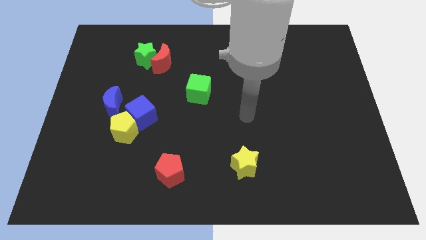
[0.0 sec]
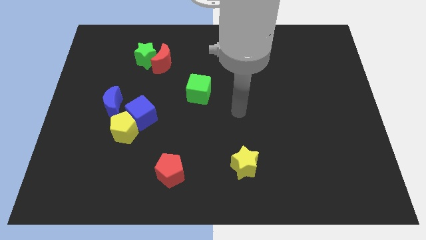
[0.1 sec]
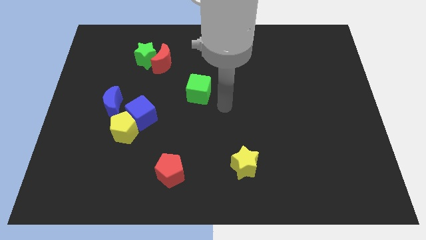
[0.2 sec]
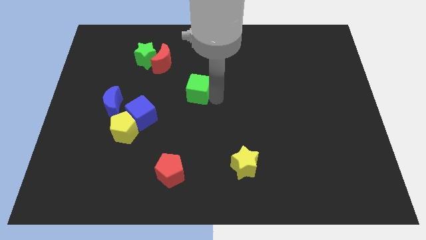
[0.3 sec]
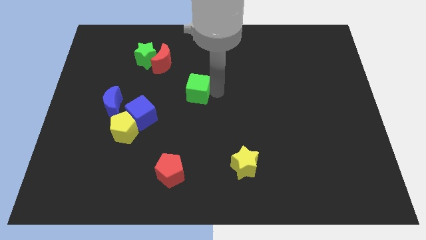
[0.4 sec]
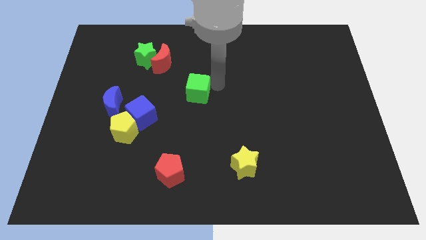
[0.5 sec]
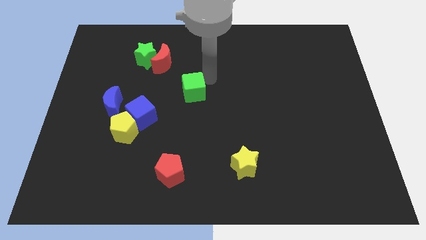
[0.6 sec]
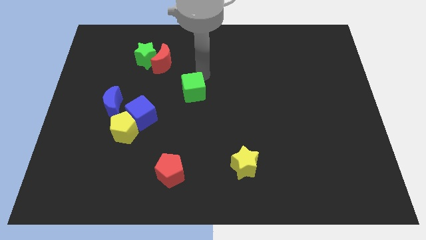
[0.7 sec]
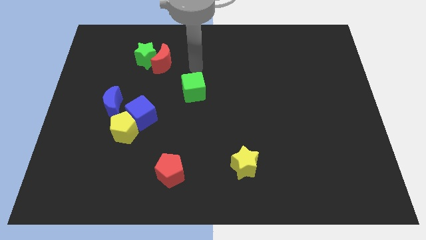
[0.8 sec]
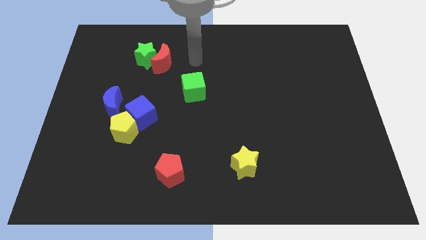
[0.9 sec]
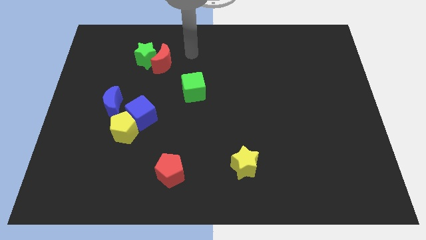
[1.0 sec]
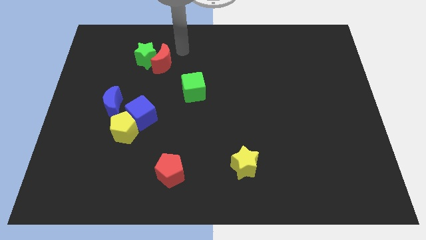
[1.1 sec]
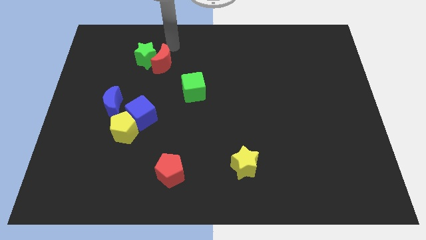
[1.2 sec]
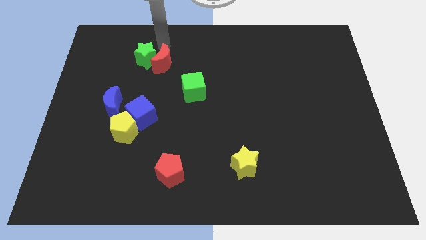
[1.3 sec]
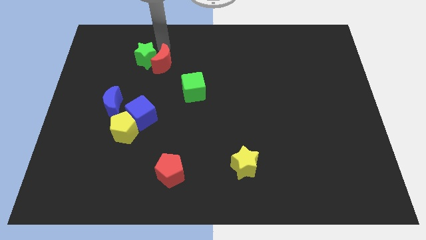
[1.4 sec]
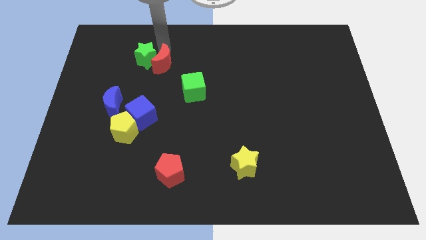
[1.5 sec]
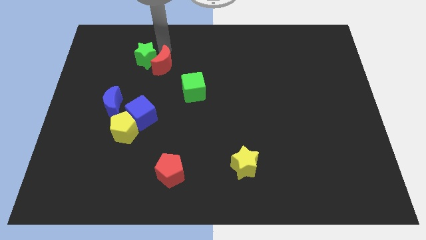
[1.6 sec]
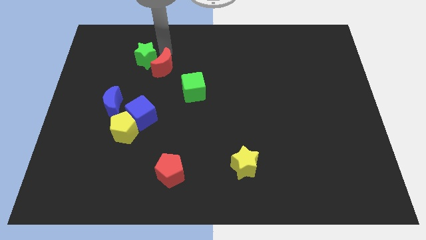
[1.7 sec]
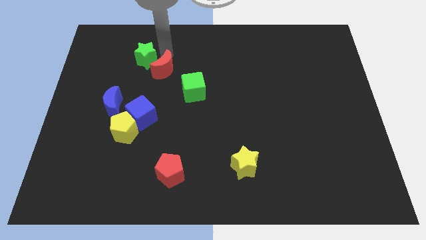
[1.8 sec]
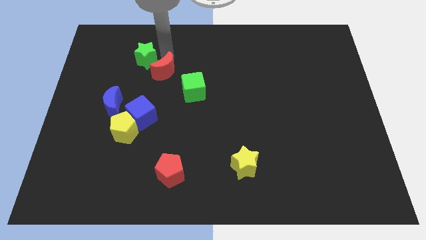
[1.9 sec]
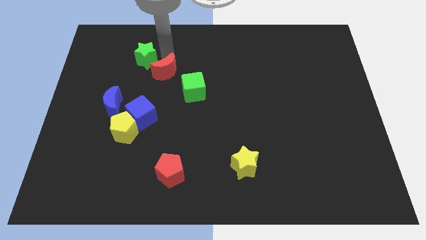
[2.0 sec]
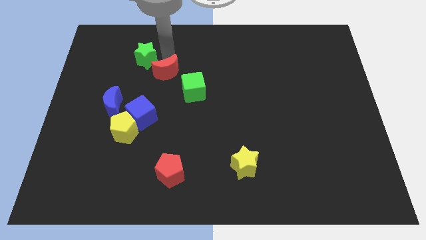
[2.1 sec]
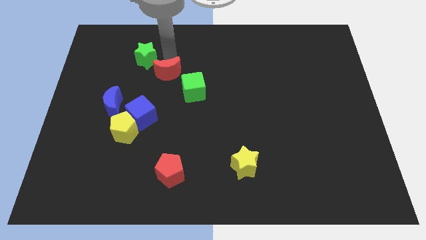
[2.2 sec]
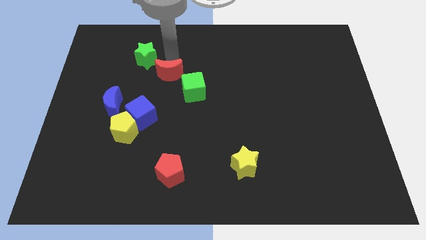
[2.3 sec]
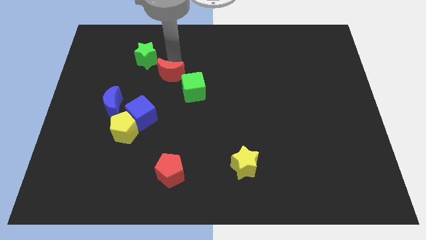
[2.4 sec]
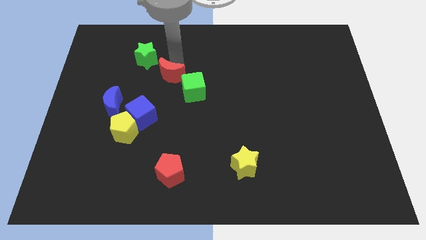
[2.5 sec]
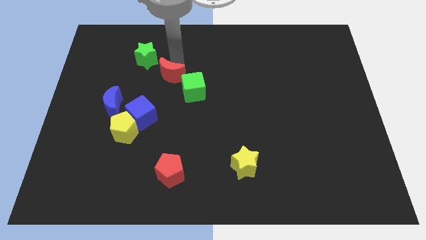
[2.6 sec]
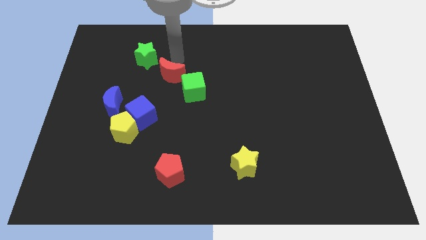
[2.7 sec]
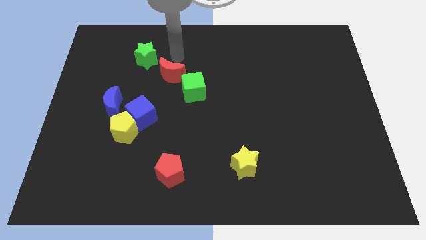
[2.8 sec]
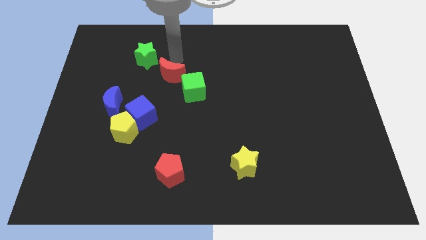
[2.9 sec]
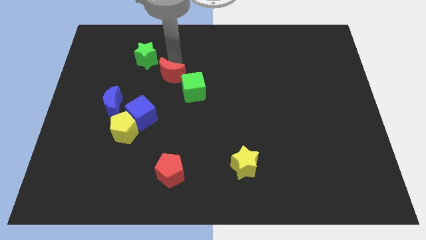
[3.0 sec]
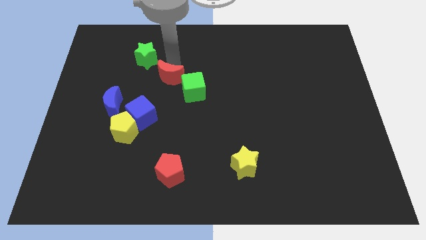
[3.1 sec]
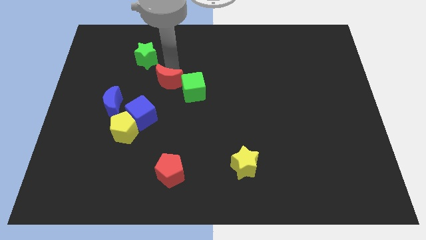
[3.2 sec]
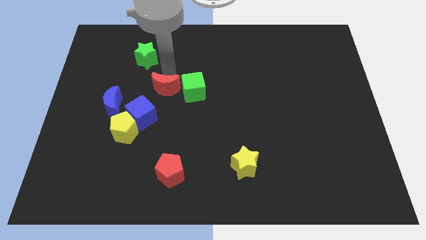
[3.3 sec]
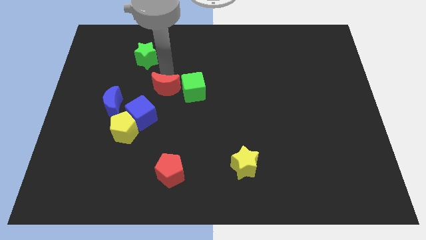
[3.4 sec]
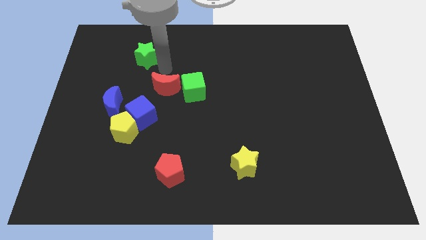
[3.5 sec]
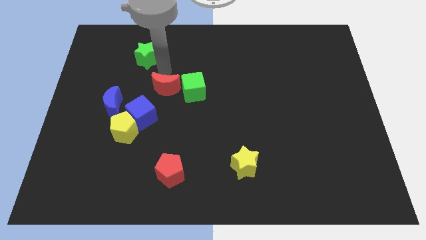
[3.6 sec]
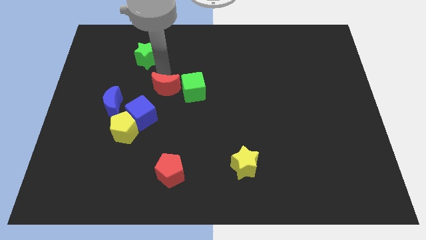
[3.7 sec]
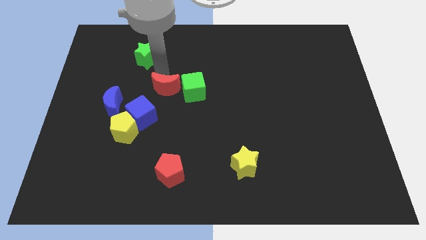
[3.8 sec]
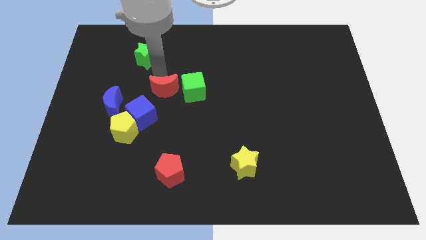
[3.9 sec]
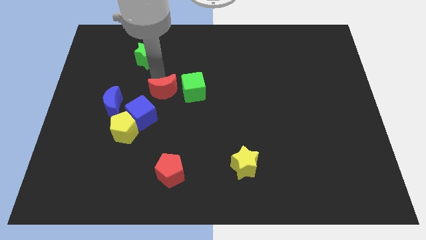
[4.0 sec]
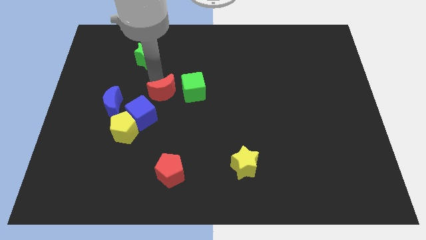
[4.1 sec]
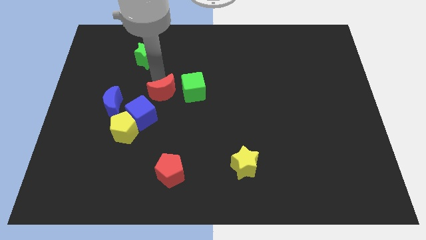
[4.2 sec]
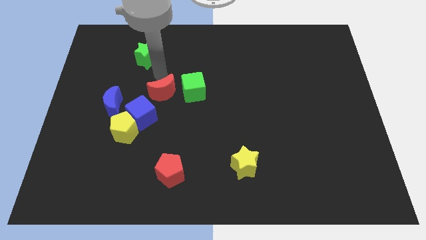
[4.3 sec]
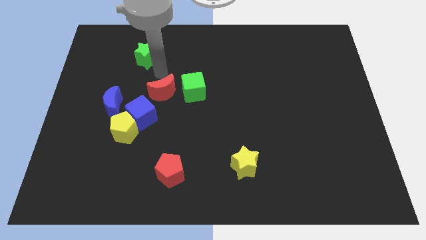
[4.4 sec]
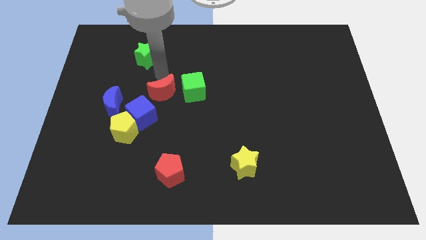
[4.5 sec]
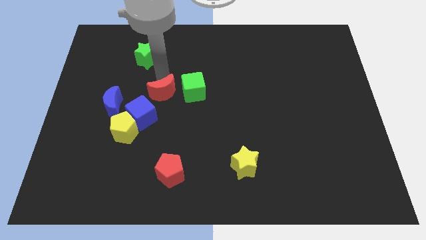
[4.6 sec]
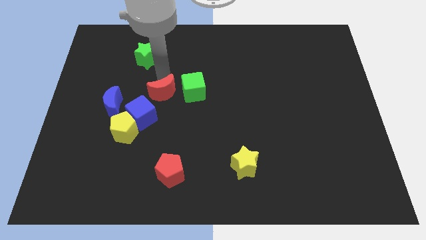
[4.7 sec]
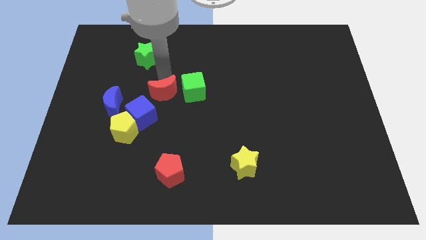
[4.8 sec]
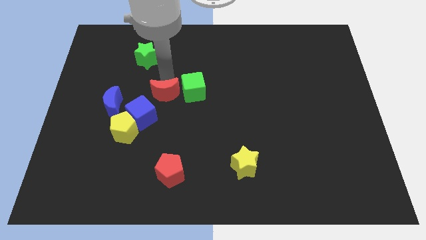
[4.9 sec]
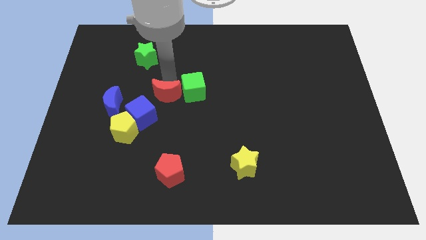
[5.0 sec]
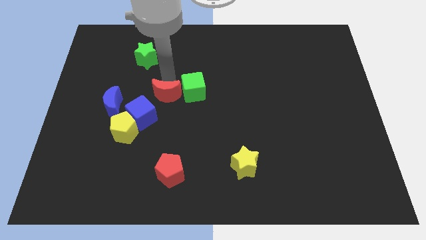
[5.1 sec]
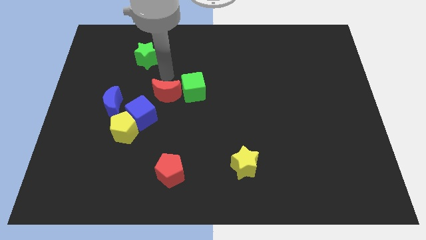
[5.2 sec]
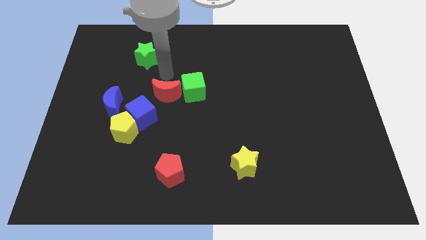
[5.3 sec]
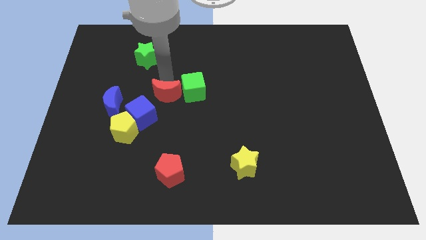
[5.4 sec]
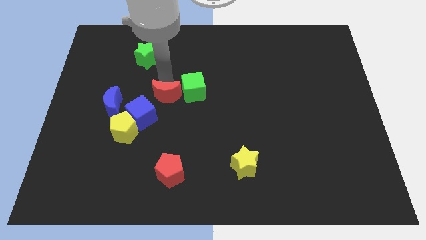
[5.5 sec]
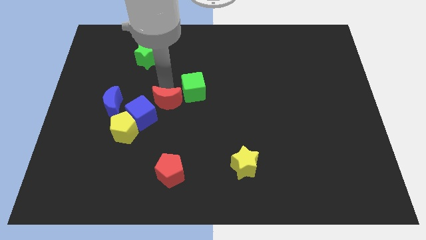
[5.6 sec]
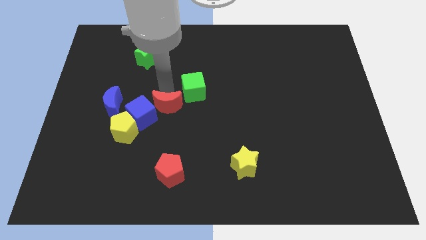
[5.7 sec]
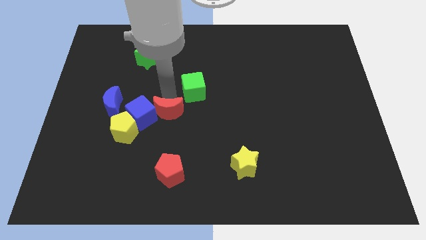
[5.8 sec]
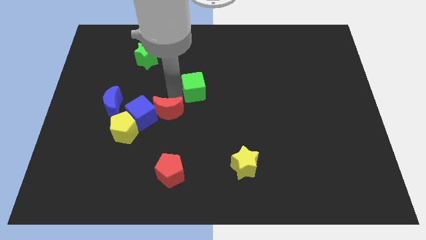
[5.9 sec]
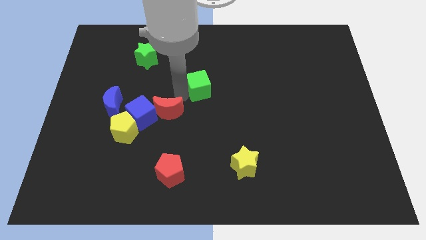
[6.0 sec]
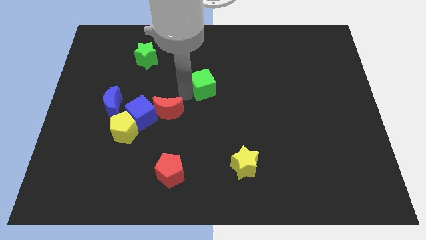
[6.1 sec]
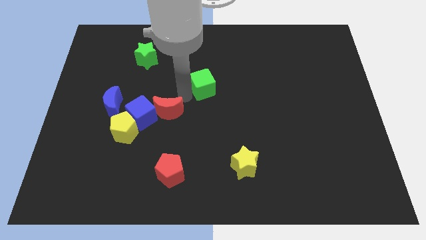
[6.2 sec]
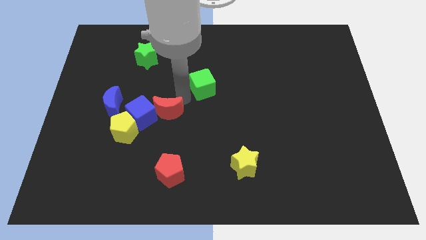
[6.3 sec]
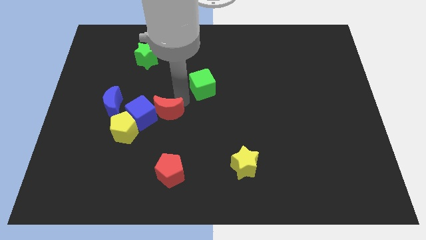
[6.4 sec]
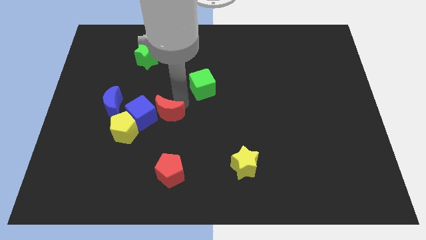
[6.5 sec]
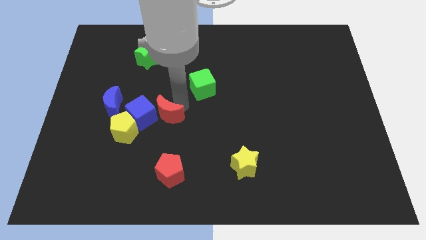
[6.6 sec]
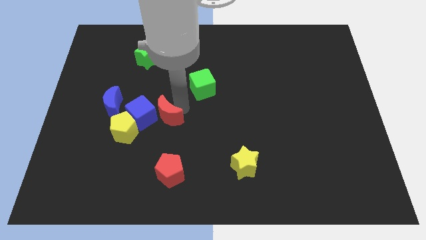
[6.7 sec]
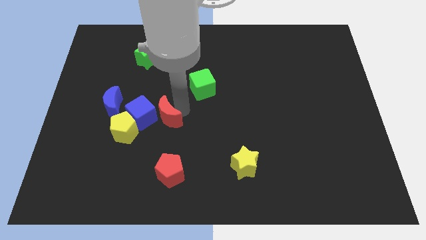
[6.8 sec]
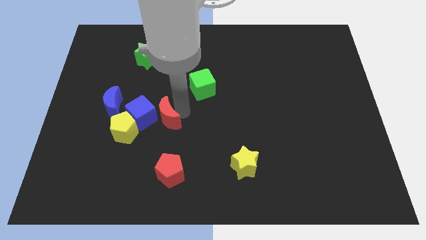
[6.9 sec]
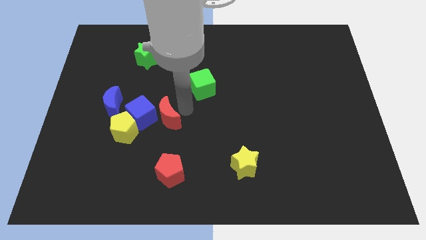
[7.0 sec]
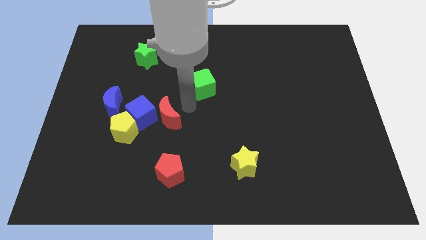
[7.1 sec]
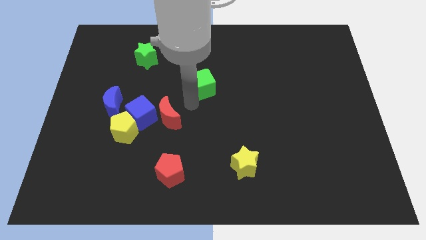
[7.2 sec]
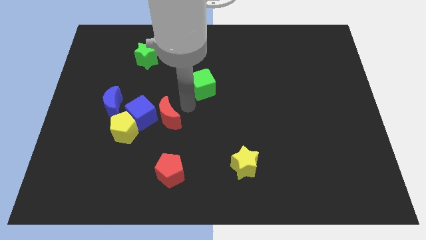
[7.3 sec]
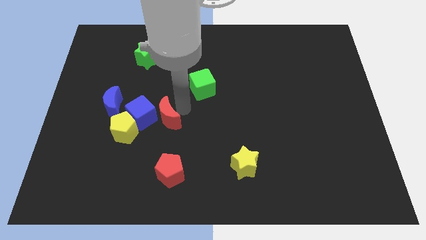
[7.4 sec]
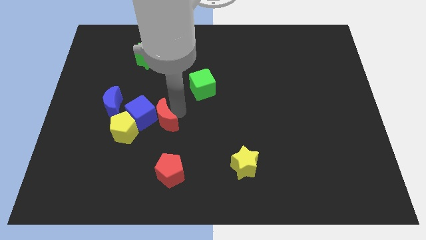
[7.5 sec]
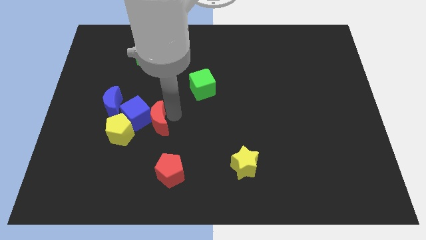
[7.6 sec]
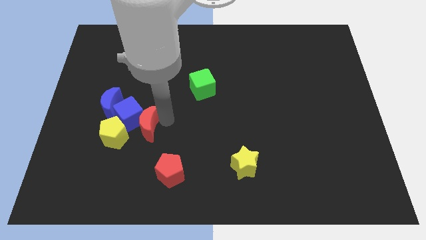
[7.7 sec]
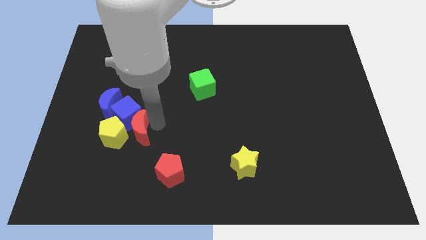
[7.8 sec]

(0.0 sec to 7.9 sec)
push the red moon to the yellow pentagon

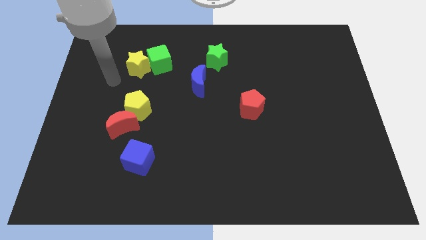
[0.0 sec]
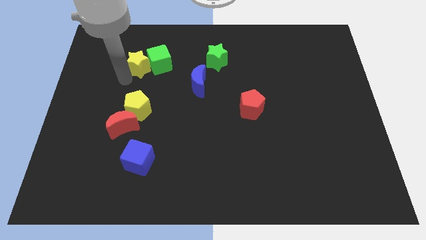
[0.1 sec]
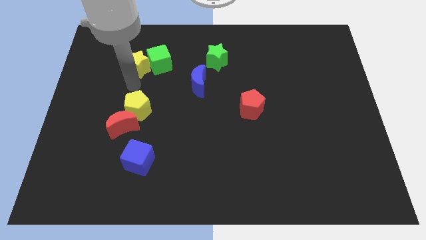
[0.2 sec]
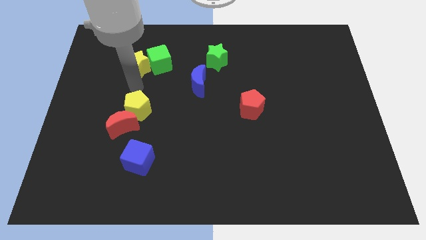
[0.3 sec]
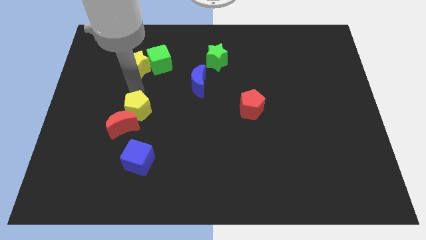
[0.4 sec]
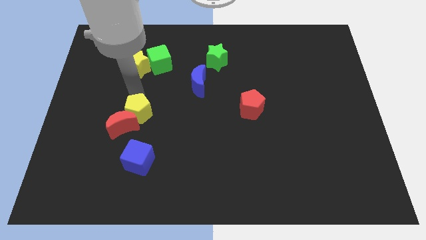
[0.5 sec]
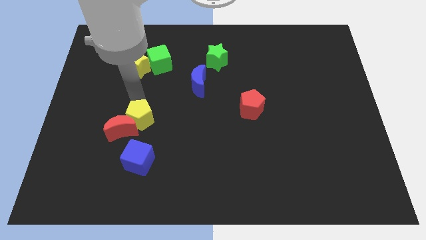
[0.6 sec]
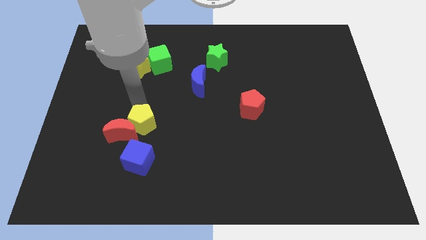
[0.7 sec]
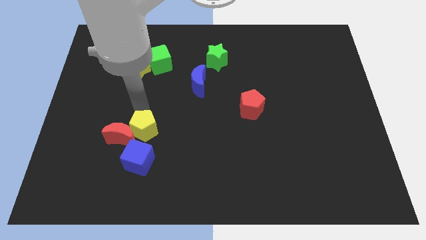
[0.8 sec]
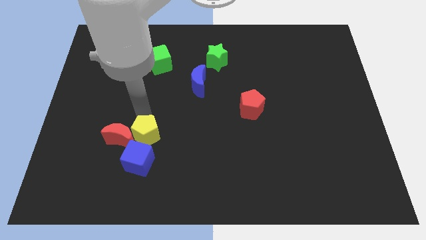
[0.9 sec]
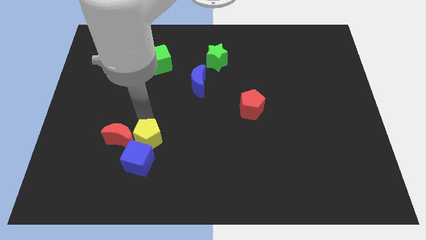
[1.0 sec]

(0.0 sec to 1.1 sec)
put the yellow pentagon towards the blue cube
